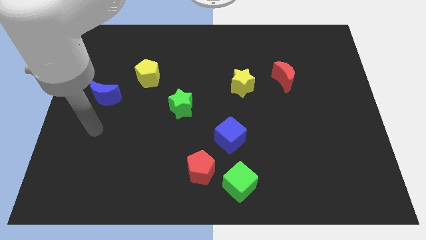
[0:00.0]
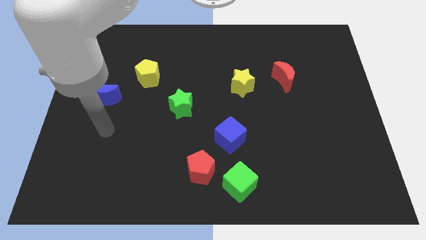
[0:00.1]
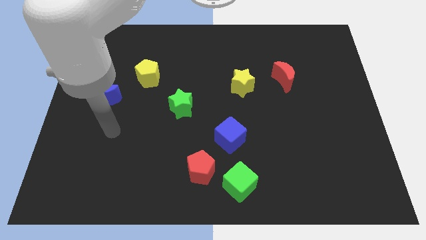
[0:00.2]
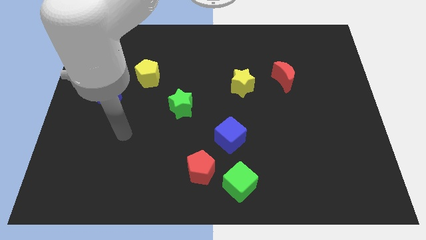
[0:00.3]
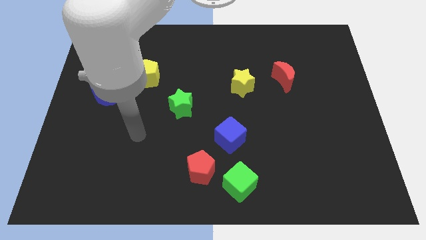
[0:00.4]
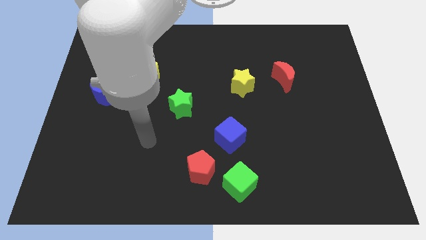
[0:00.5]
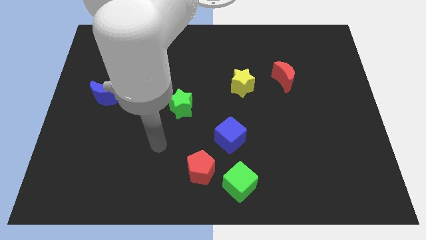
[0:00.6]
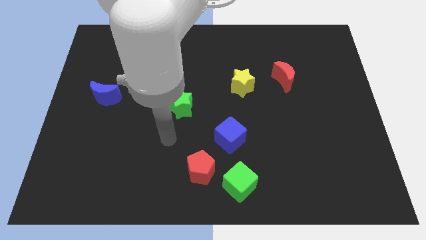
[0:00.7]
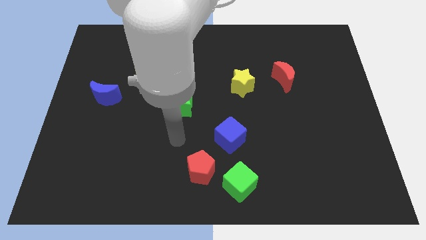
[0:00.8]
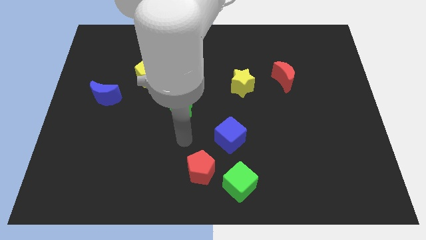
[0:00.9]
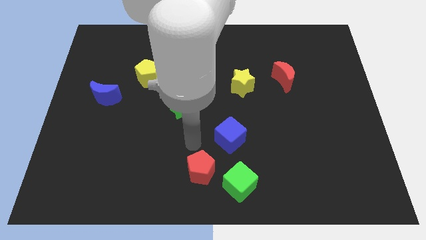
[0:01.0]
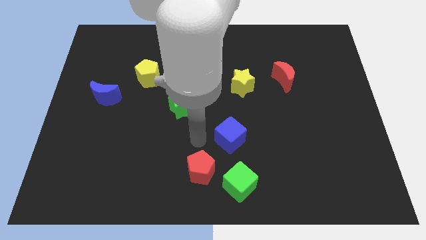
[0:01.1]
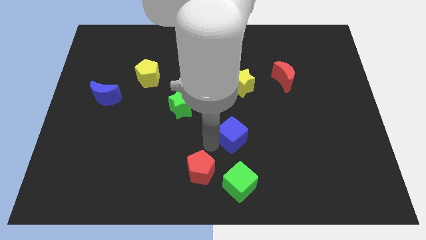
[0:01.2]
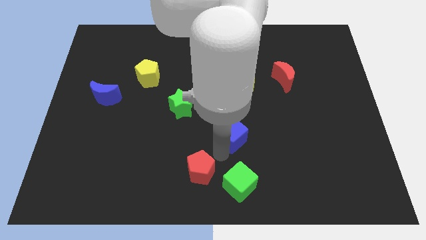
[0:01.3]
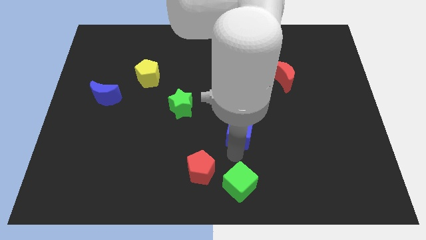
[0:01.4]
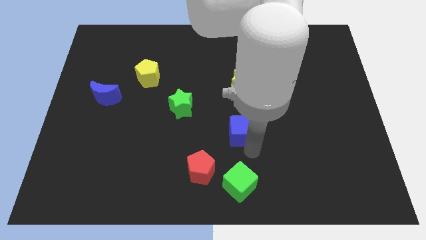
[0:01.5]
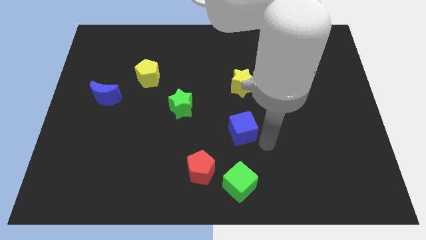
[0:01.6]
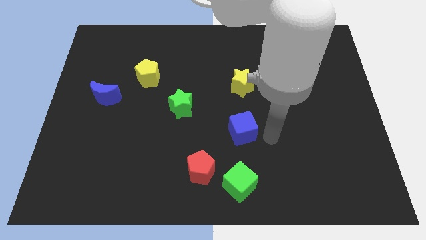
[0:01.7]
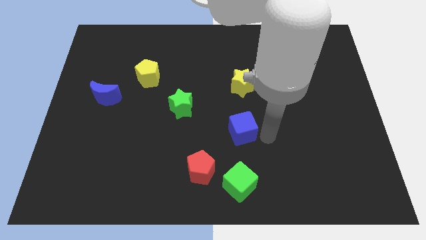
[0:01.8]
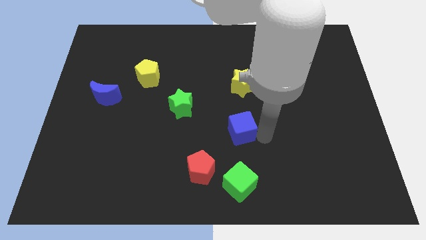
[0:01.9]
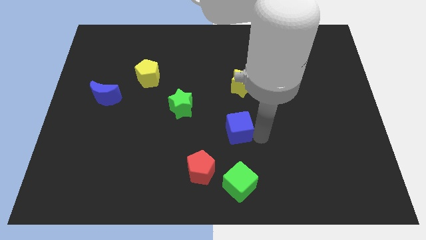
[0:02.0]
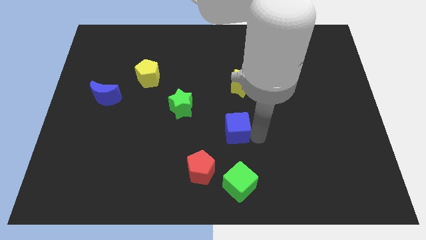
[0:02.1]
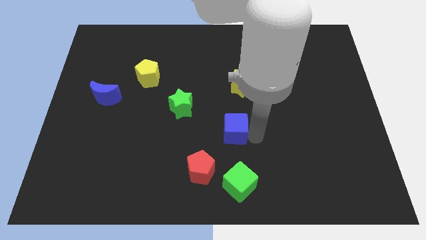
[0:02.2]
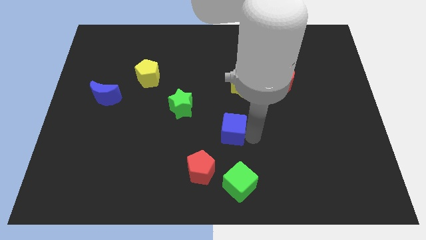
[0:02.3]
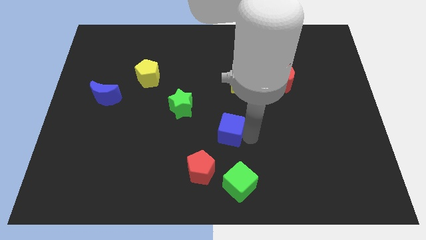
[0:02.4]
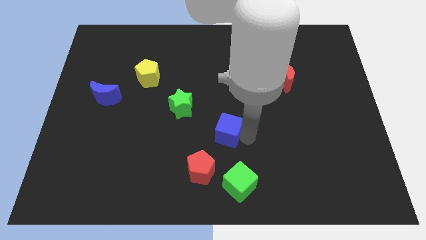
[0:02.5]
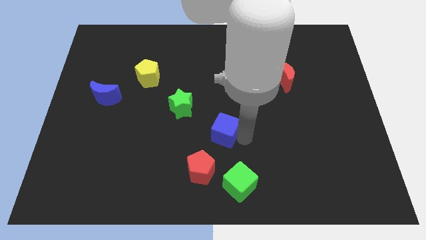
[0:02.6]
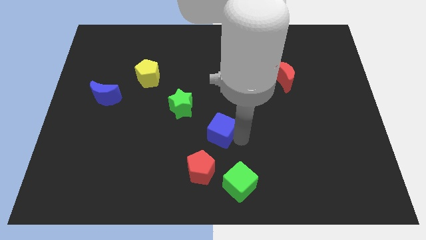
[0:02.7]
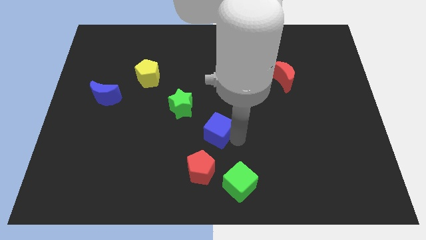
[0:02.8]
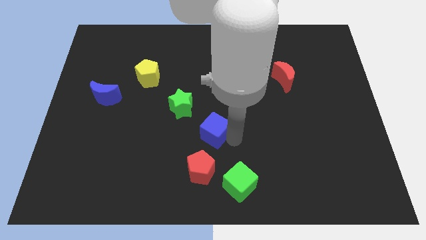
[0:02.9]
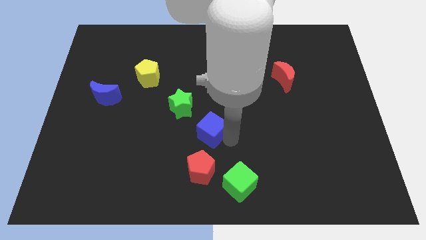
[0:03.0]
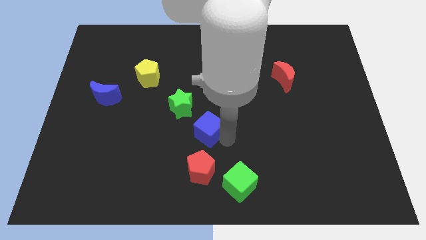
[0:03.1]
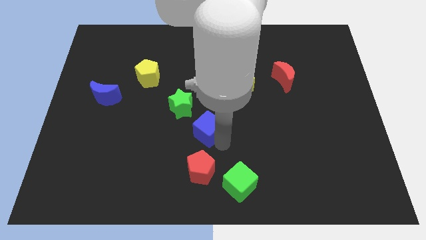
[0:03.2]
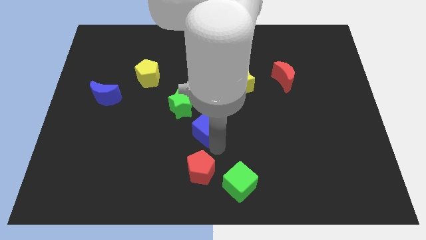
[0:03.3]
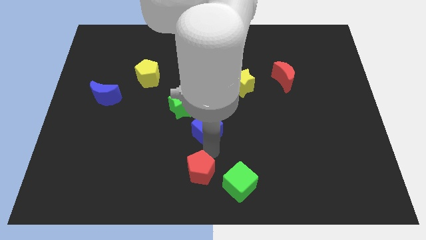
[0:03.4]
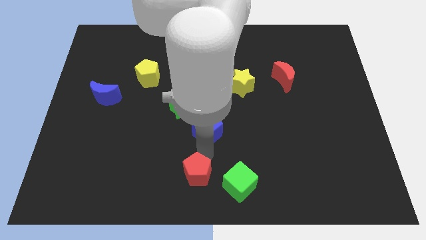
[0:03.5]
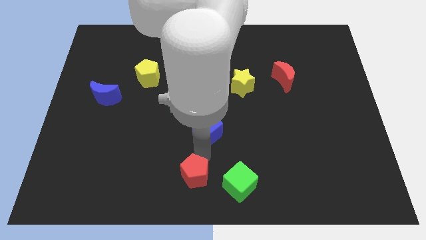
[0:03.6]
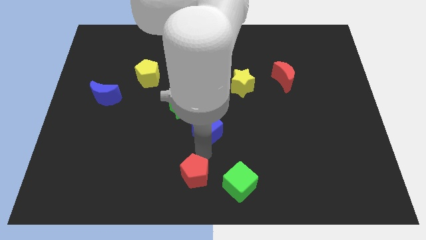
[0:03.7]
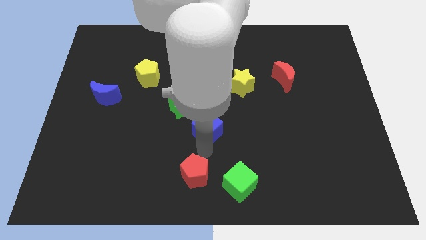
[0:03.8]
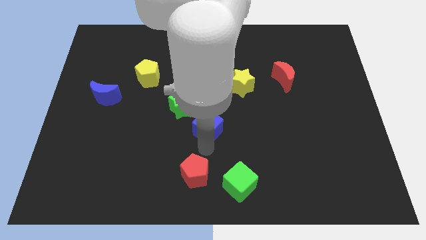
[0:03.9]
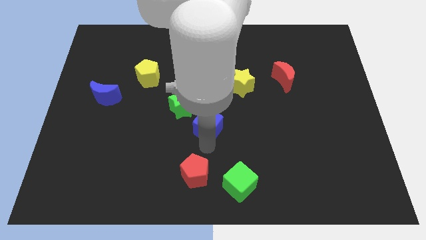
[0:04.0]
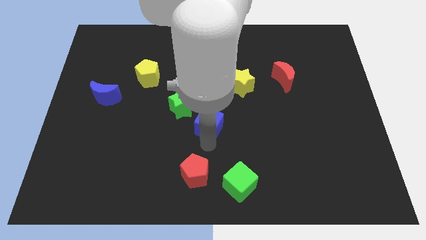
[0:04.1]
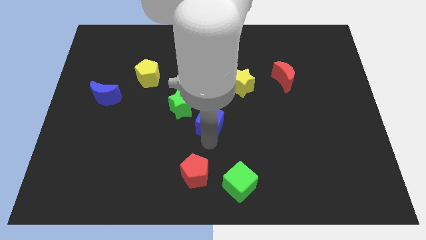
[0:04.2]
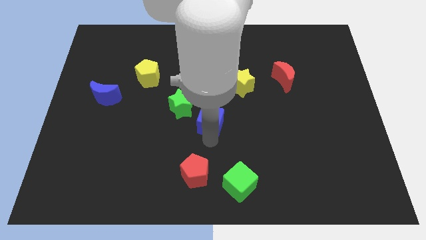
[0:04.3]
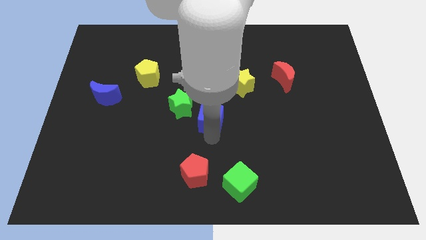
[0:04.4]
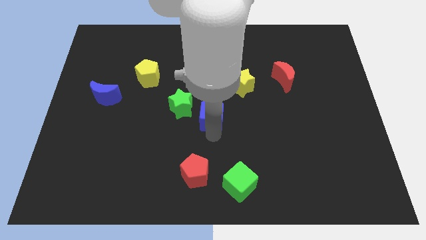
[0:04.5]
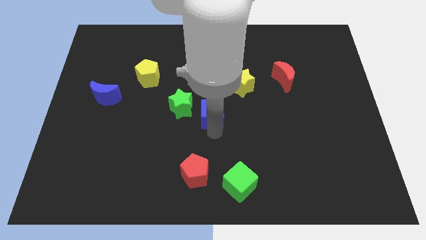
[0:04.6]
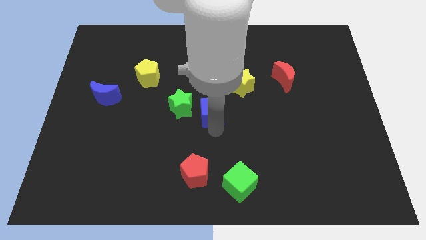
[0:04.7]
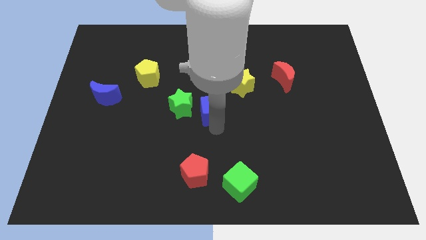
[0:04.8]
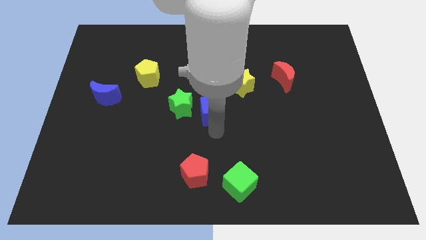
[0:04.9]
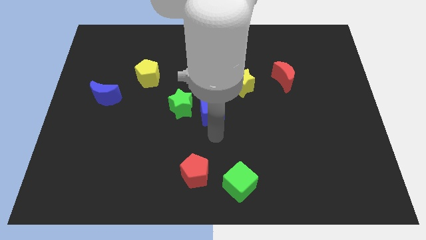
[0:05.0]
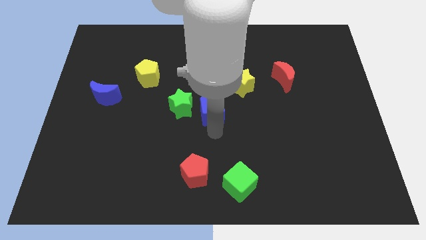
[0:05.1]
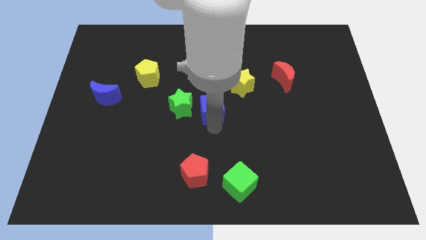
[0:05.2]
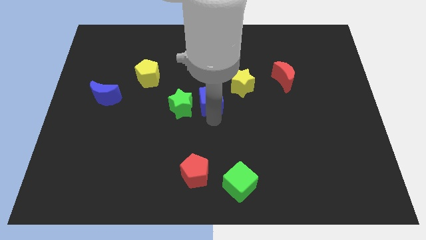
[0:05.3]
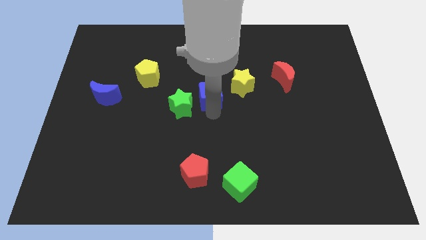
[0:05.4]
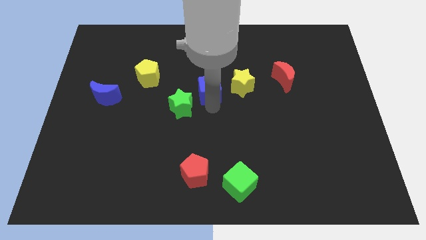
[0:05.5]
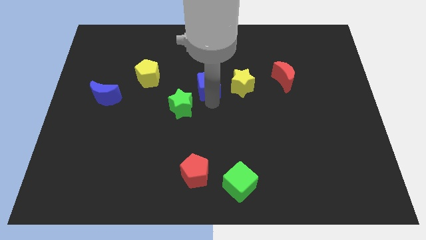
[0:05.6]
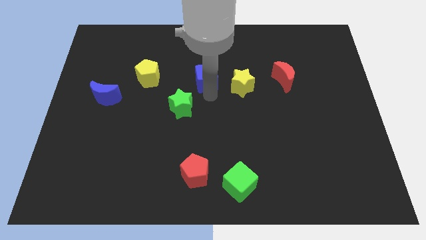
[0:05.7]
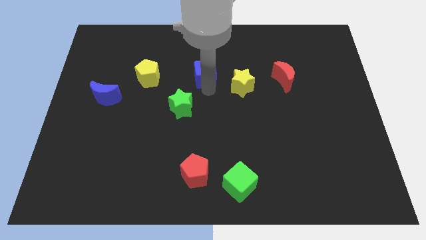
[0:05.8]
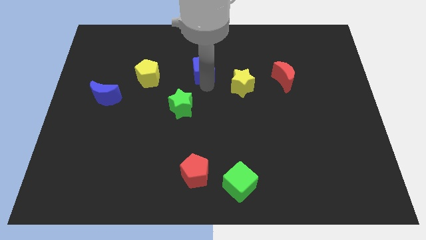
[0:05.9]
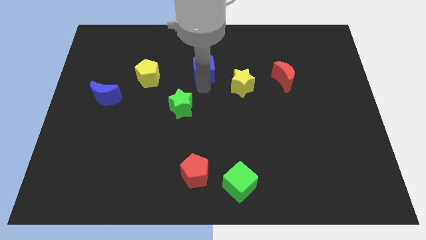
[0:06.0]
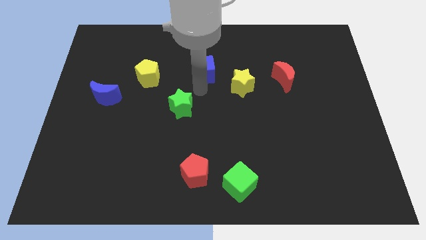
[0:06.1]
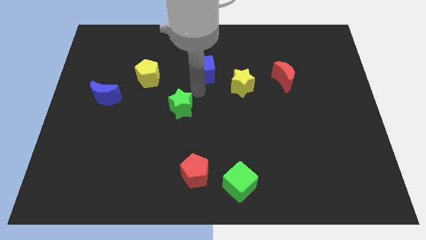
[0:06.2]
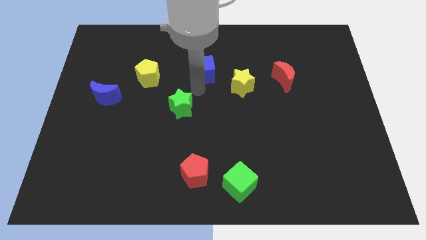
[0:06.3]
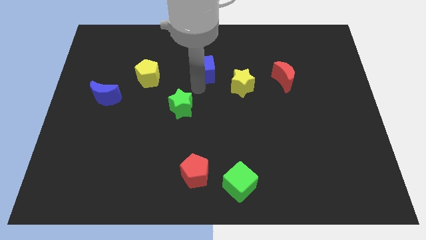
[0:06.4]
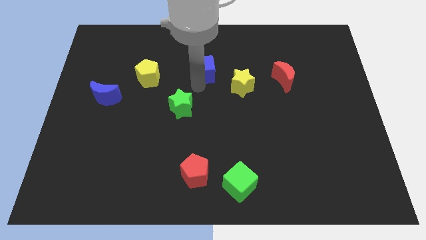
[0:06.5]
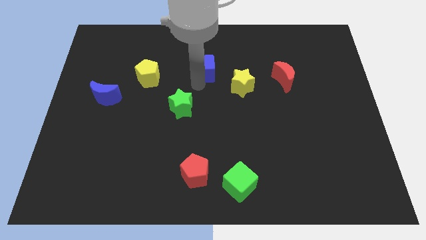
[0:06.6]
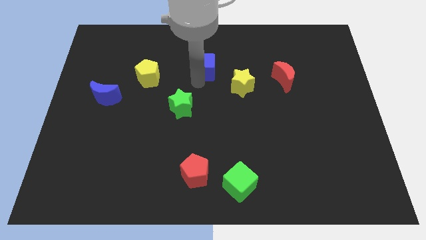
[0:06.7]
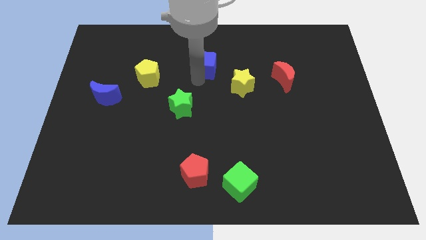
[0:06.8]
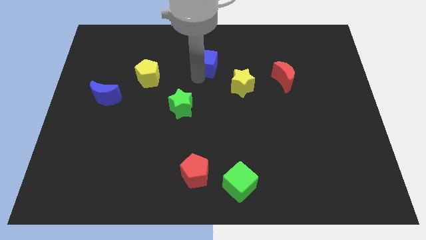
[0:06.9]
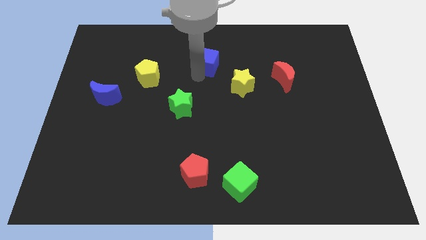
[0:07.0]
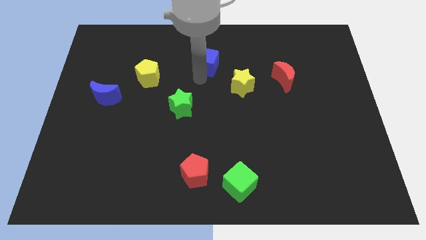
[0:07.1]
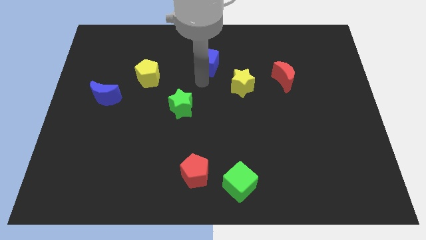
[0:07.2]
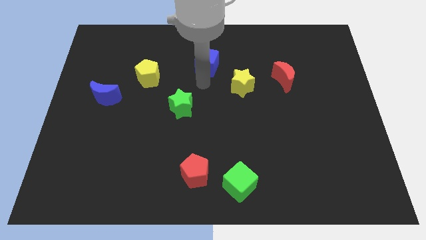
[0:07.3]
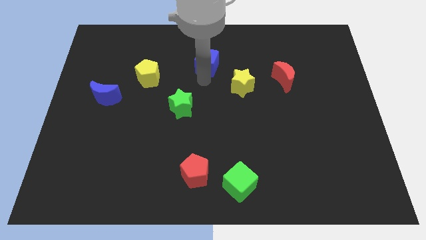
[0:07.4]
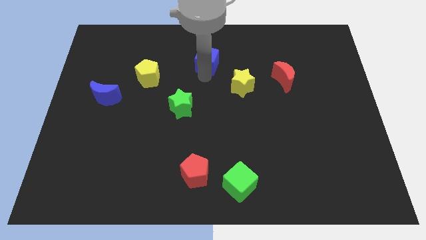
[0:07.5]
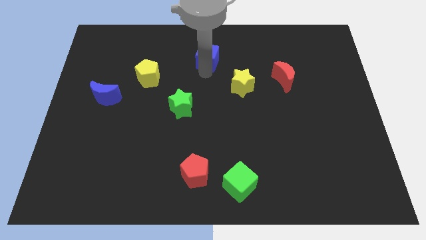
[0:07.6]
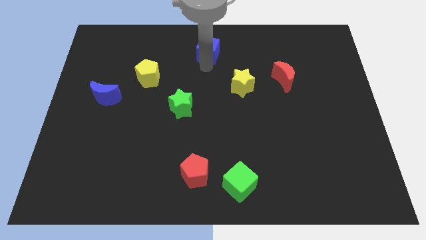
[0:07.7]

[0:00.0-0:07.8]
slide the blue cube to the top side
